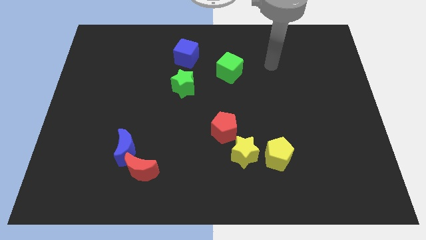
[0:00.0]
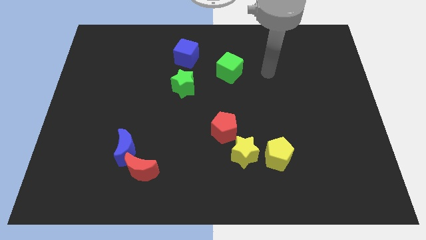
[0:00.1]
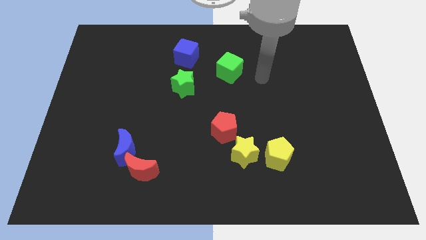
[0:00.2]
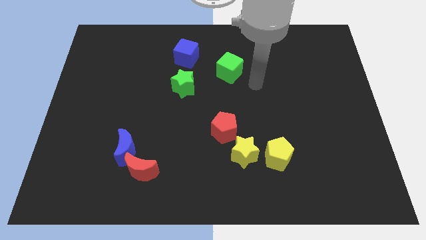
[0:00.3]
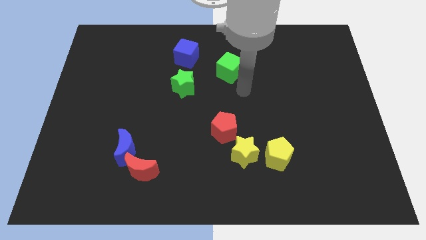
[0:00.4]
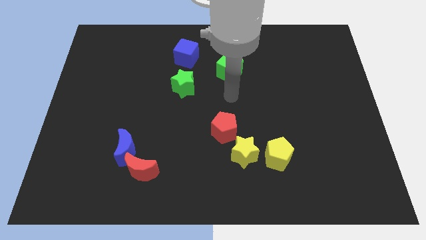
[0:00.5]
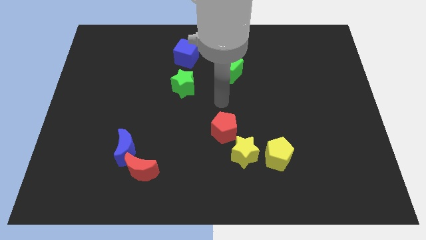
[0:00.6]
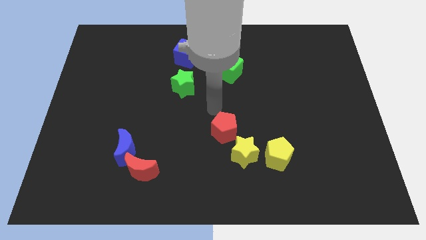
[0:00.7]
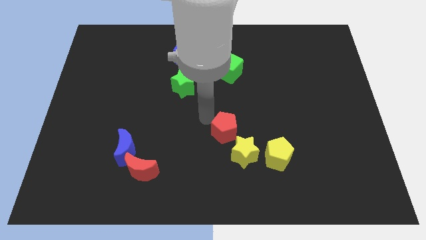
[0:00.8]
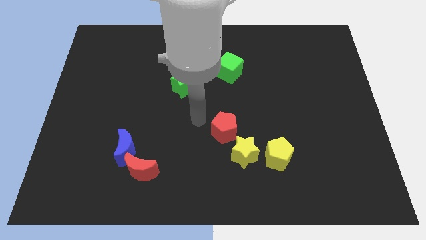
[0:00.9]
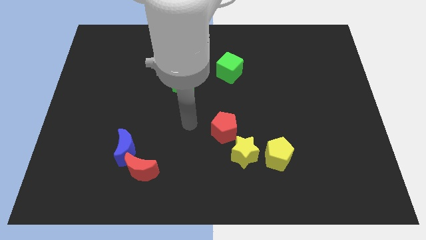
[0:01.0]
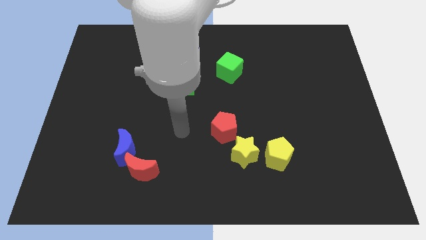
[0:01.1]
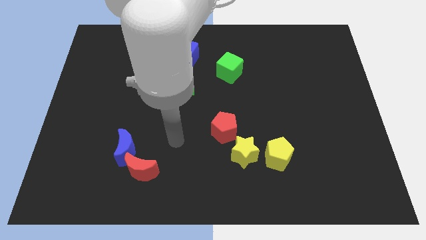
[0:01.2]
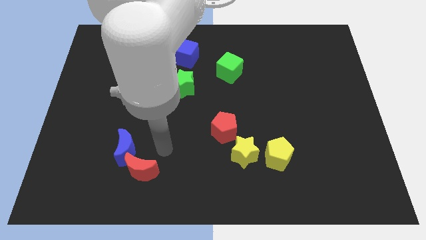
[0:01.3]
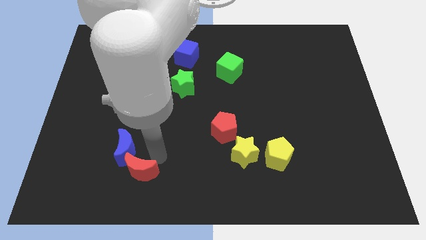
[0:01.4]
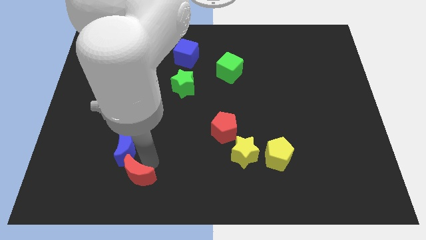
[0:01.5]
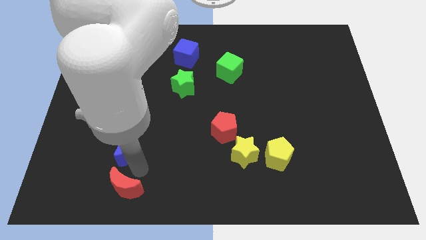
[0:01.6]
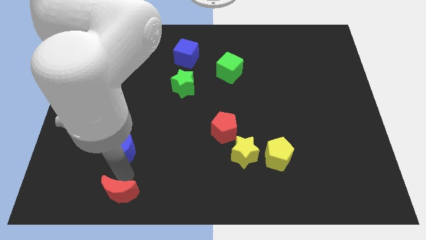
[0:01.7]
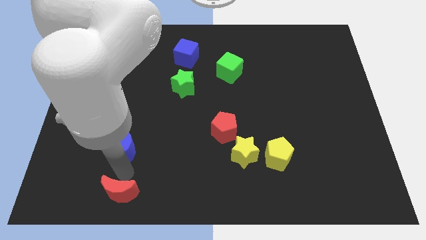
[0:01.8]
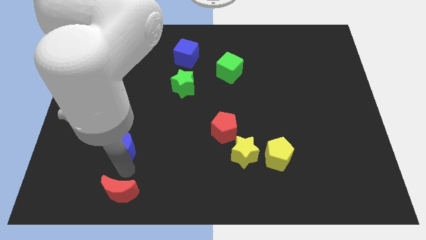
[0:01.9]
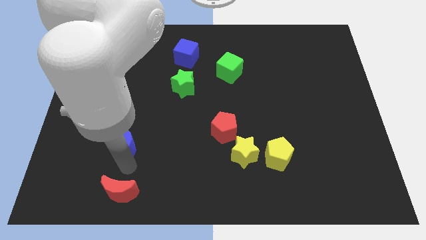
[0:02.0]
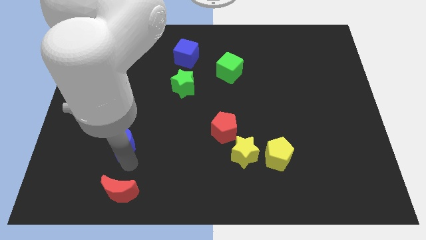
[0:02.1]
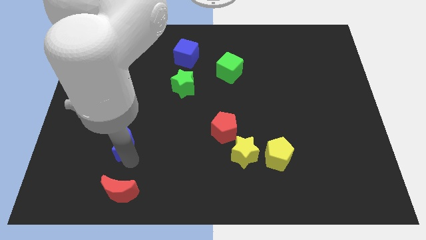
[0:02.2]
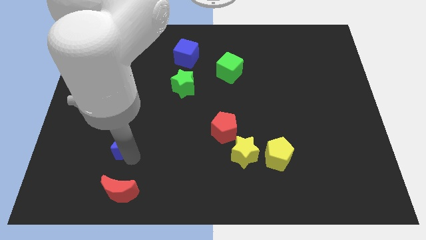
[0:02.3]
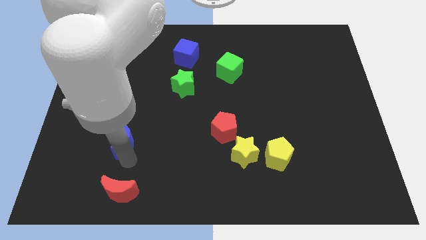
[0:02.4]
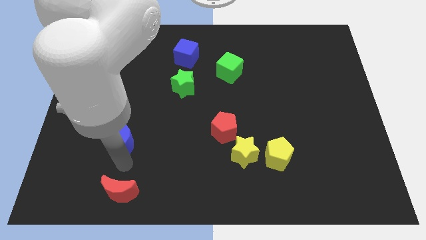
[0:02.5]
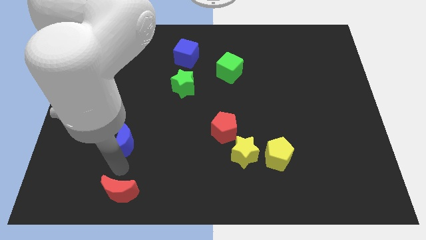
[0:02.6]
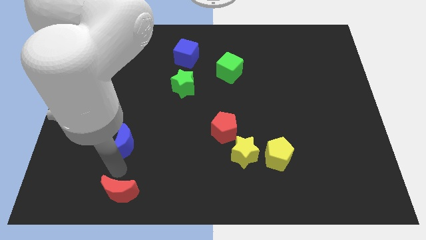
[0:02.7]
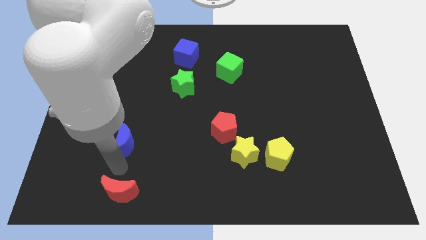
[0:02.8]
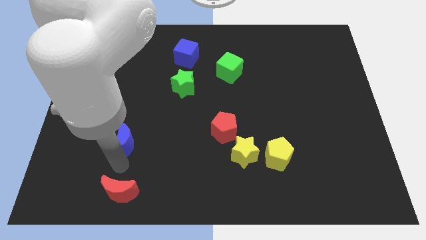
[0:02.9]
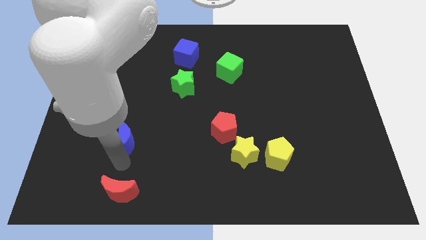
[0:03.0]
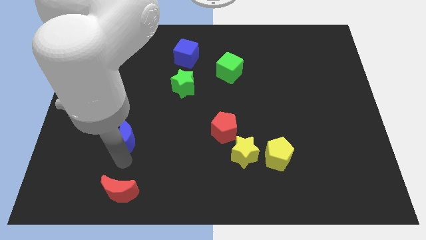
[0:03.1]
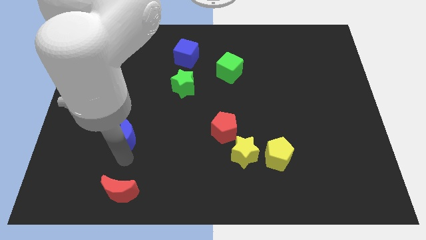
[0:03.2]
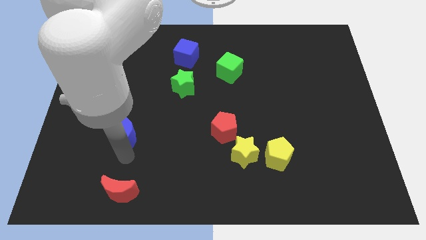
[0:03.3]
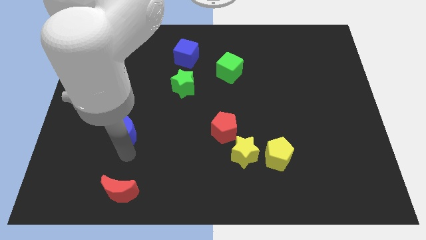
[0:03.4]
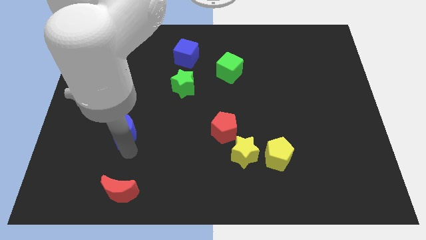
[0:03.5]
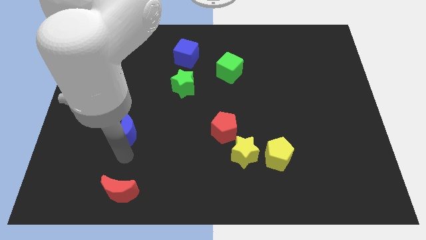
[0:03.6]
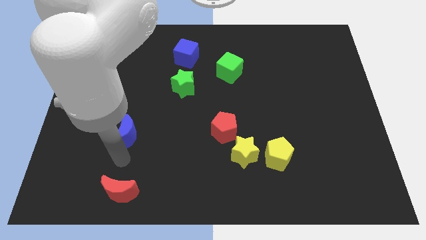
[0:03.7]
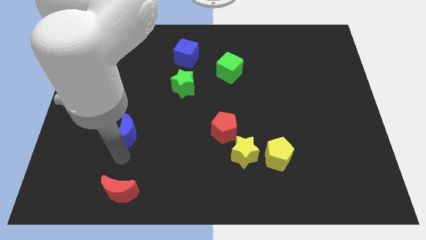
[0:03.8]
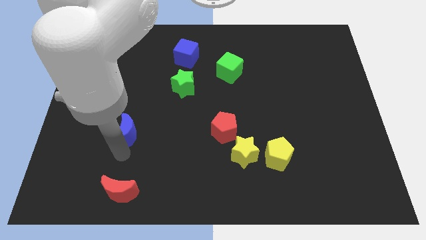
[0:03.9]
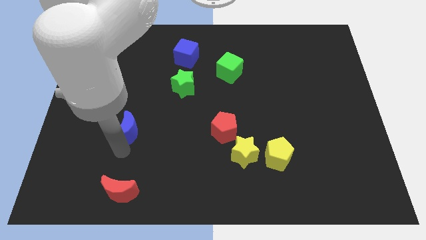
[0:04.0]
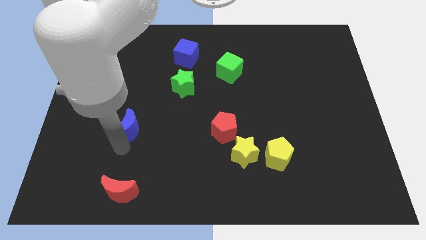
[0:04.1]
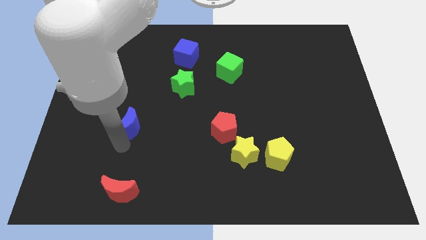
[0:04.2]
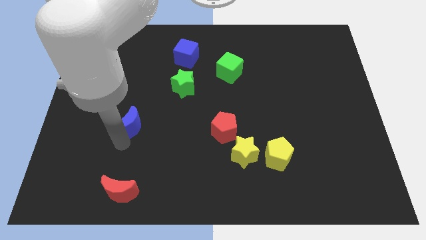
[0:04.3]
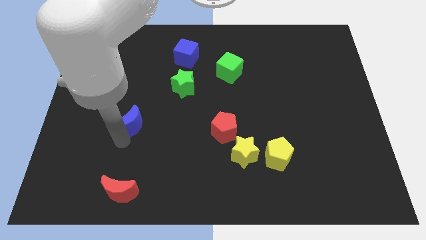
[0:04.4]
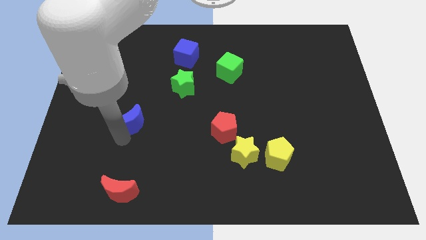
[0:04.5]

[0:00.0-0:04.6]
move the blue moon somewhat up

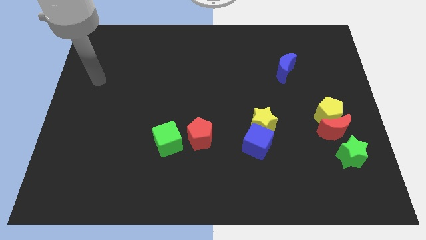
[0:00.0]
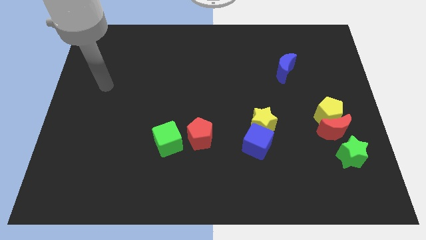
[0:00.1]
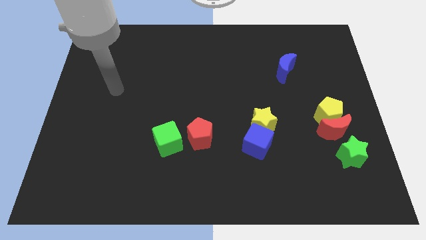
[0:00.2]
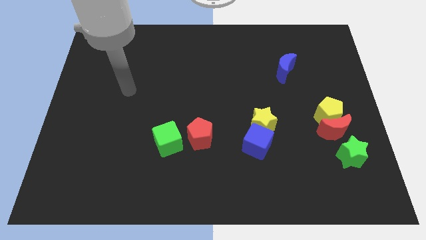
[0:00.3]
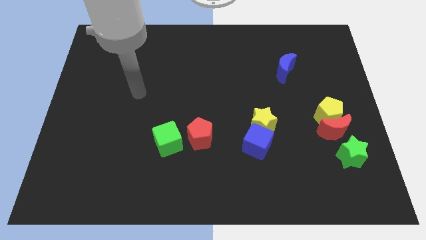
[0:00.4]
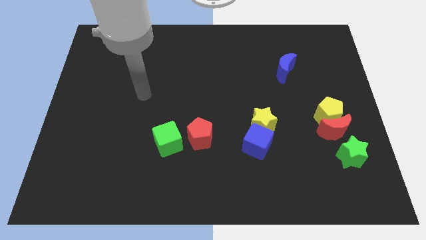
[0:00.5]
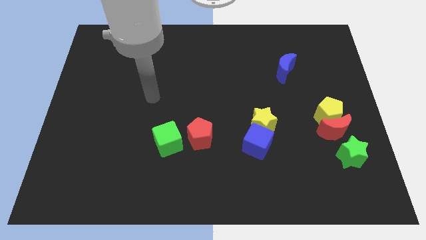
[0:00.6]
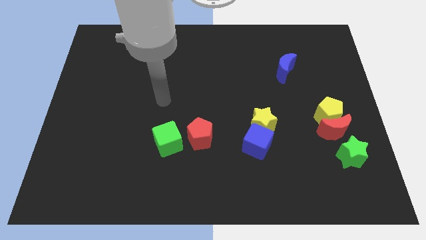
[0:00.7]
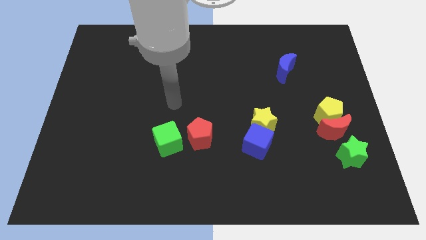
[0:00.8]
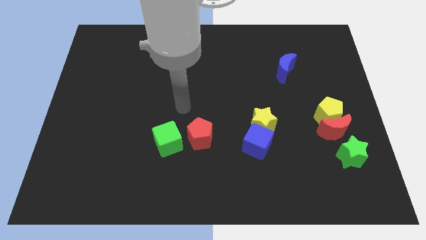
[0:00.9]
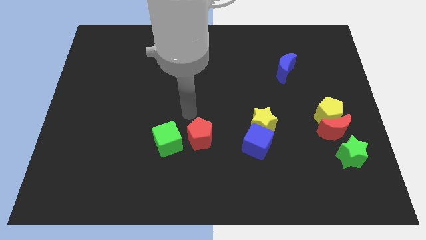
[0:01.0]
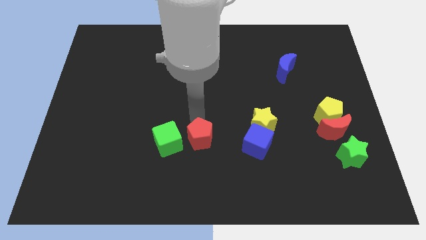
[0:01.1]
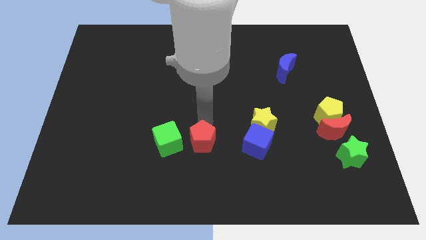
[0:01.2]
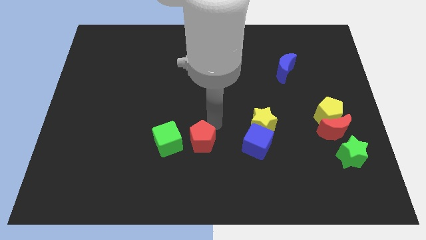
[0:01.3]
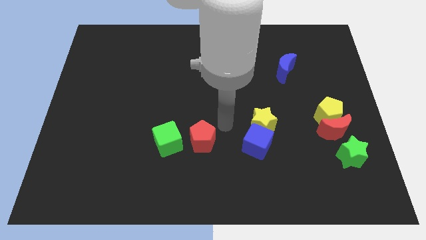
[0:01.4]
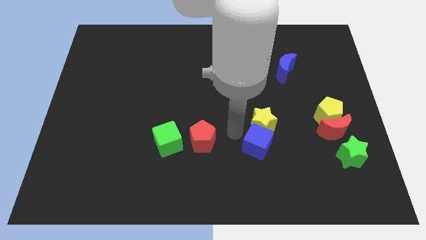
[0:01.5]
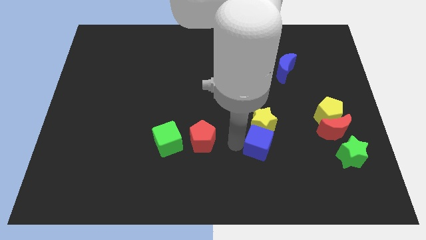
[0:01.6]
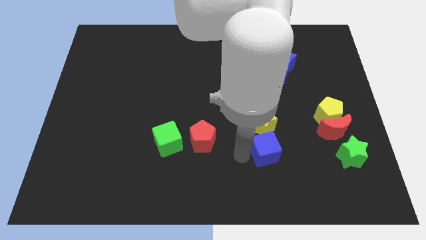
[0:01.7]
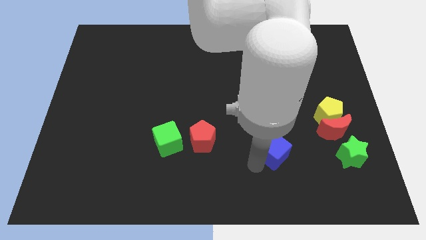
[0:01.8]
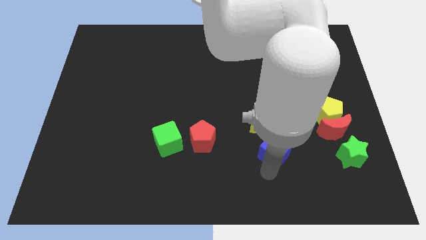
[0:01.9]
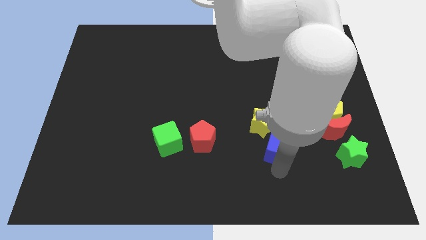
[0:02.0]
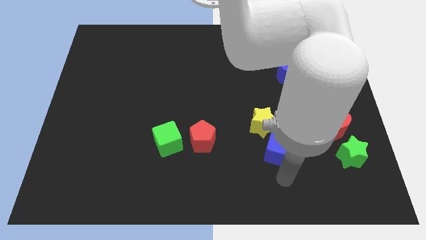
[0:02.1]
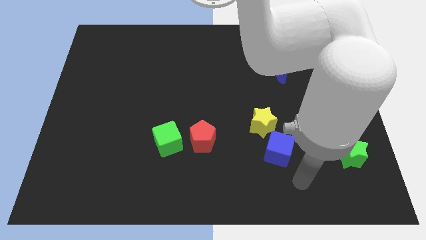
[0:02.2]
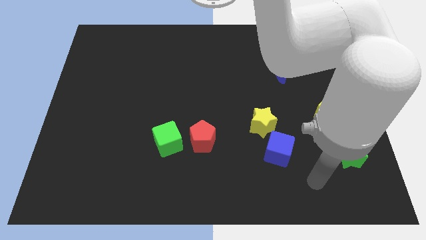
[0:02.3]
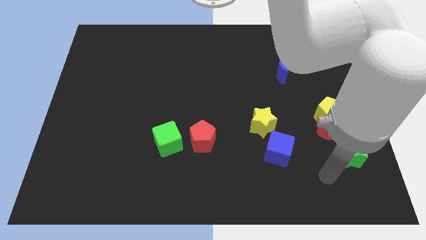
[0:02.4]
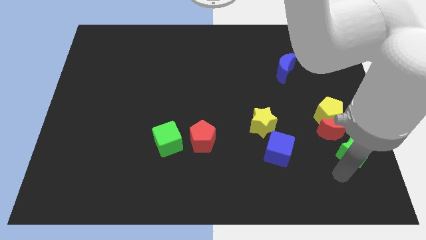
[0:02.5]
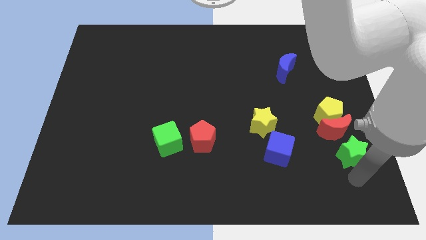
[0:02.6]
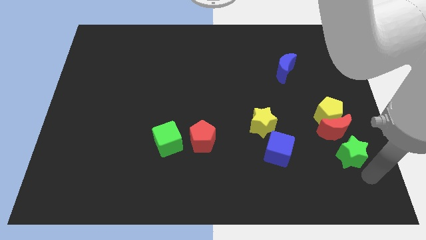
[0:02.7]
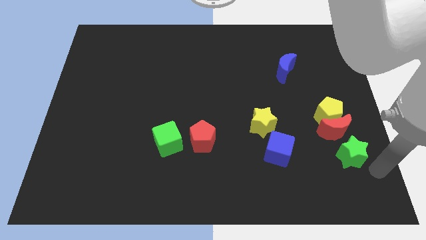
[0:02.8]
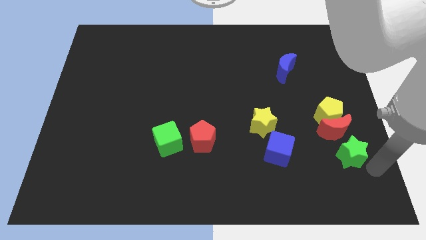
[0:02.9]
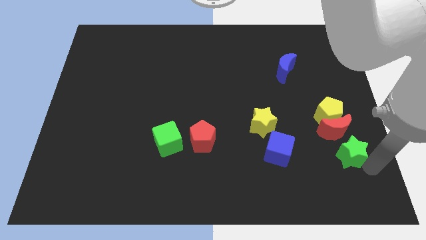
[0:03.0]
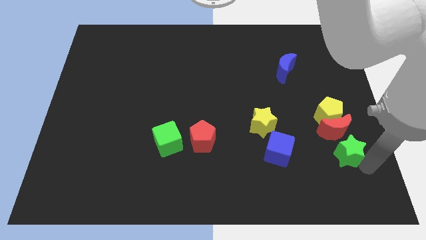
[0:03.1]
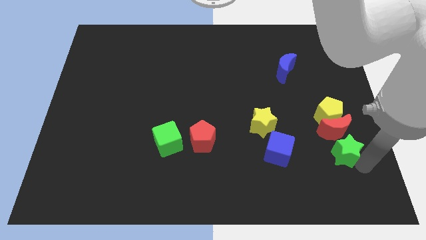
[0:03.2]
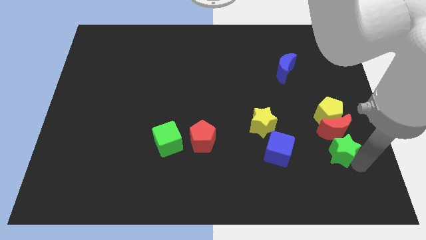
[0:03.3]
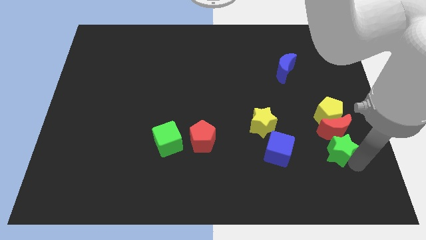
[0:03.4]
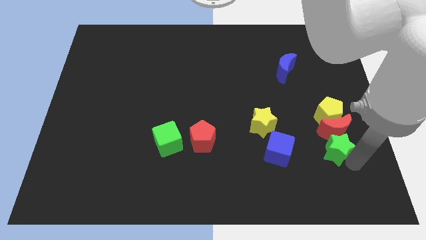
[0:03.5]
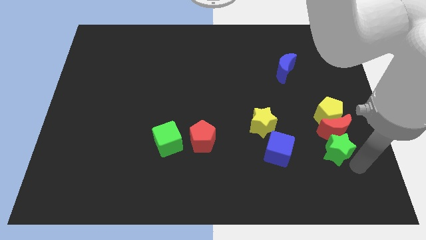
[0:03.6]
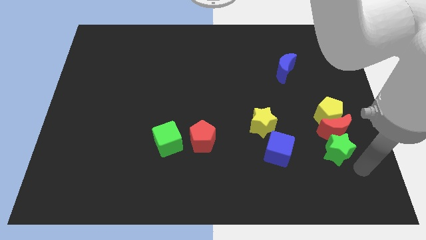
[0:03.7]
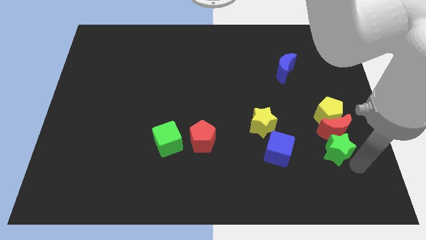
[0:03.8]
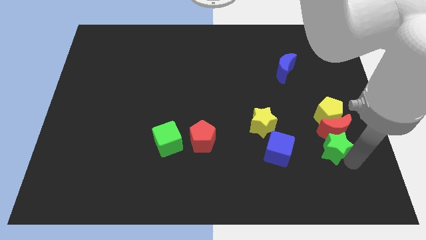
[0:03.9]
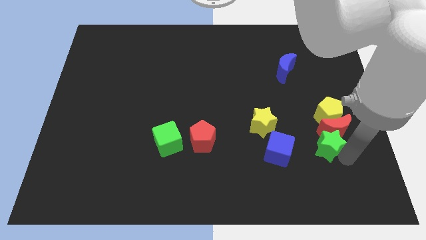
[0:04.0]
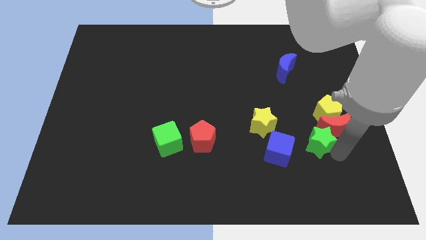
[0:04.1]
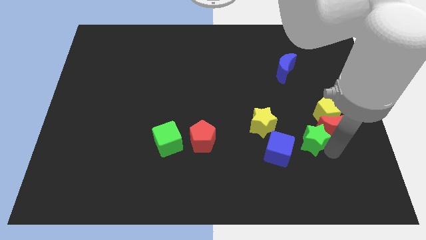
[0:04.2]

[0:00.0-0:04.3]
slide the green star up and then to the left a little
